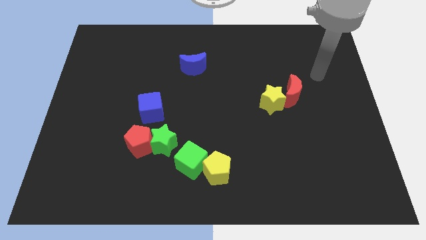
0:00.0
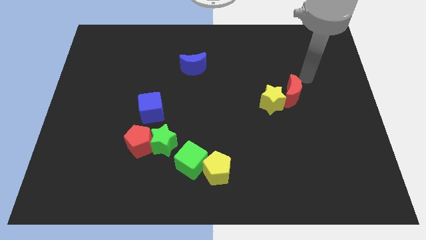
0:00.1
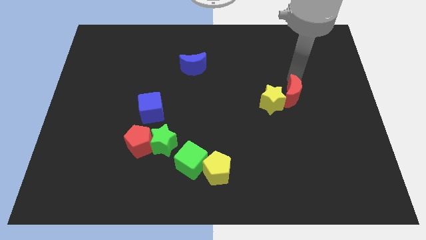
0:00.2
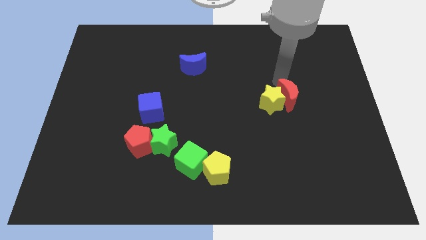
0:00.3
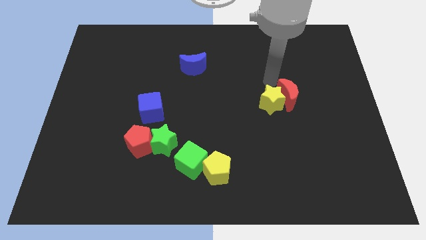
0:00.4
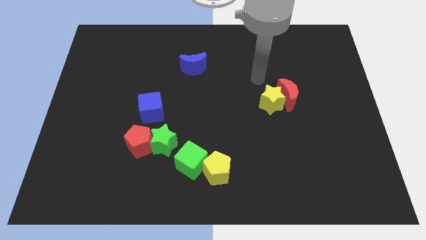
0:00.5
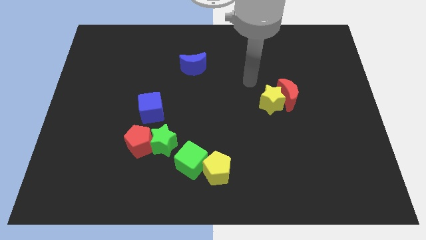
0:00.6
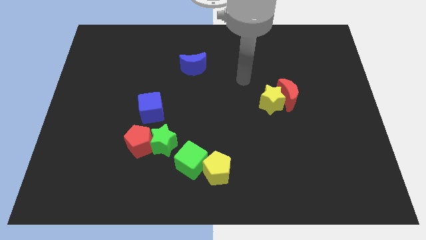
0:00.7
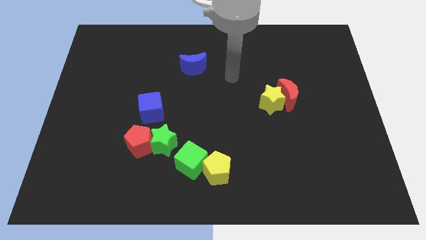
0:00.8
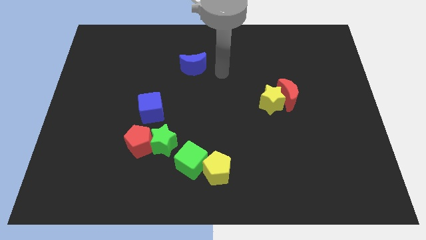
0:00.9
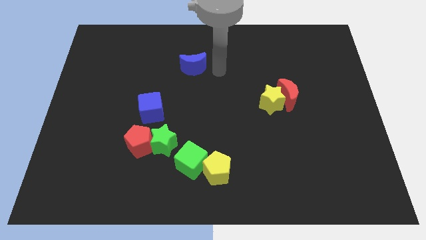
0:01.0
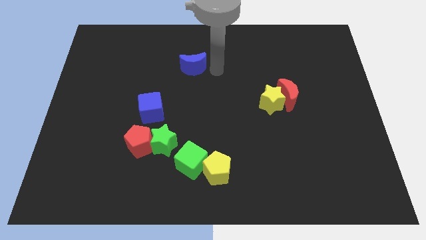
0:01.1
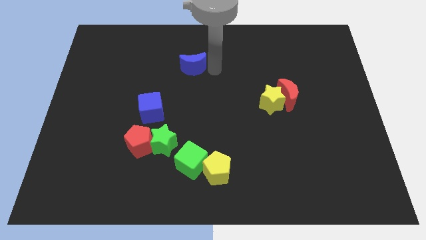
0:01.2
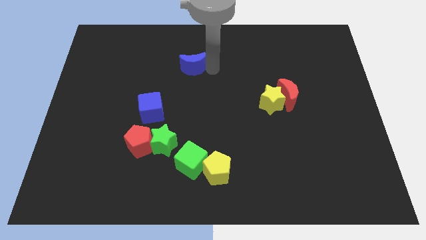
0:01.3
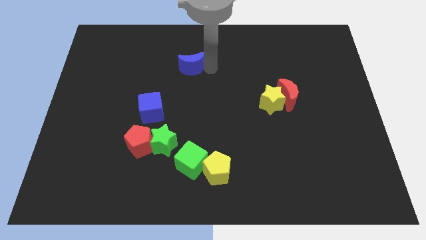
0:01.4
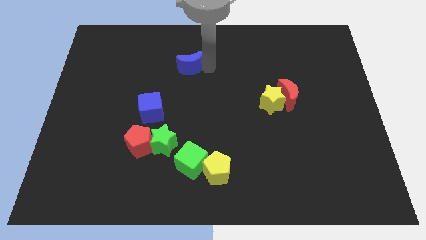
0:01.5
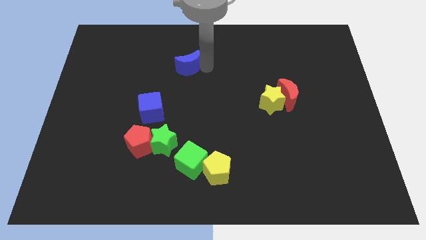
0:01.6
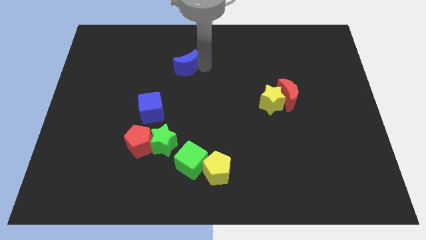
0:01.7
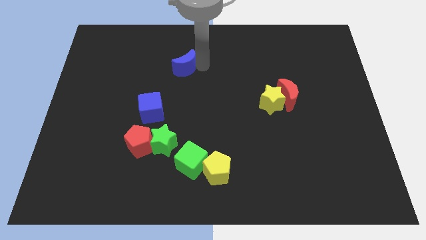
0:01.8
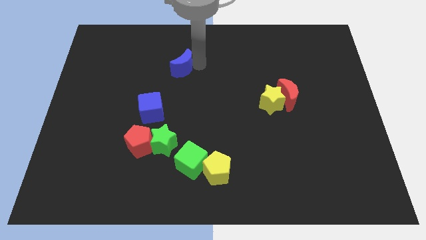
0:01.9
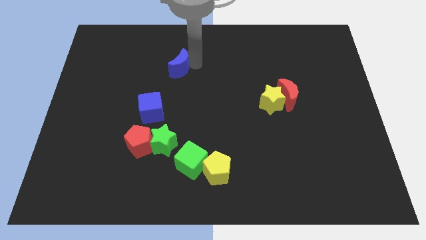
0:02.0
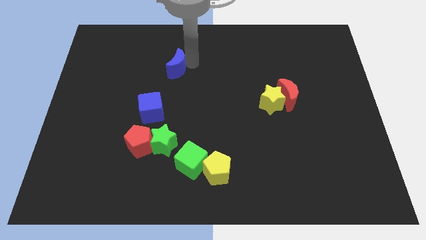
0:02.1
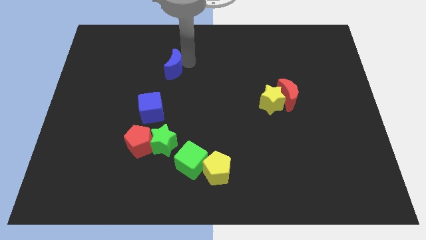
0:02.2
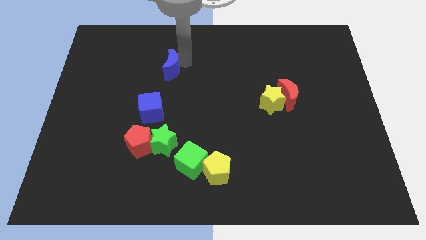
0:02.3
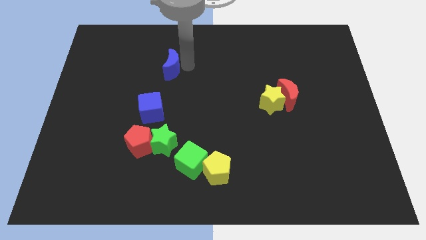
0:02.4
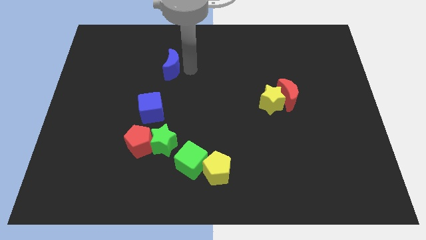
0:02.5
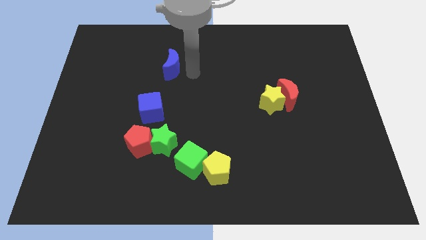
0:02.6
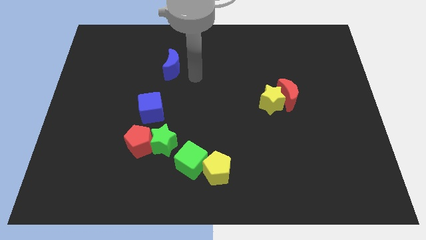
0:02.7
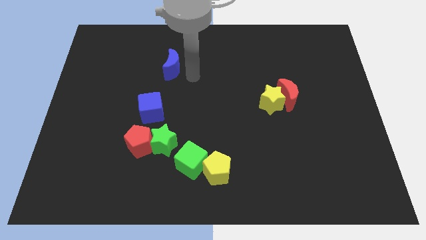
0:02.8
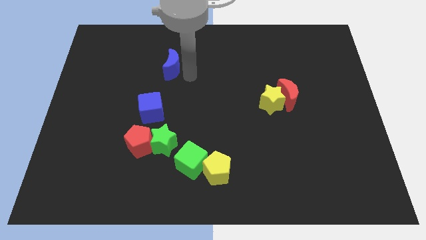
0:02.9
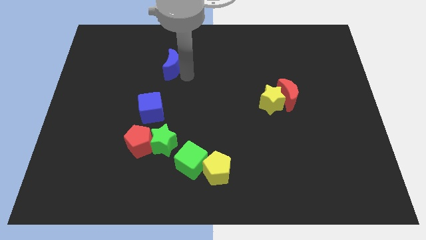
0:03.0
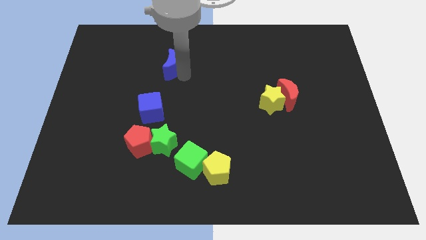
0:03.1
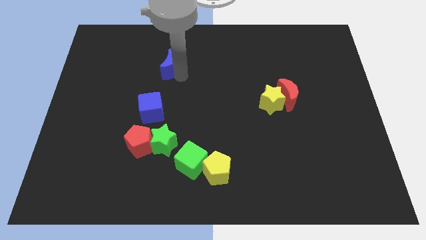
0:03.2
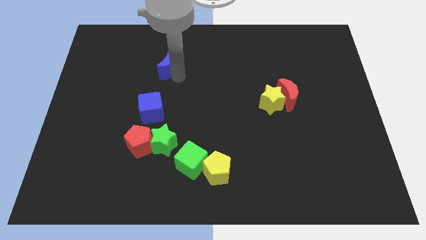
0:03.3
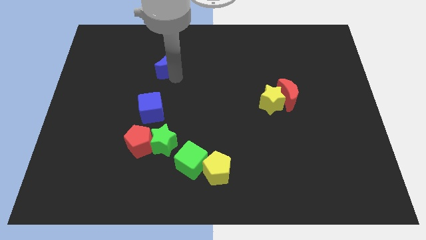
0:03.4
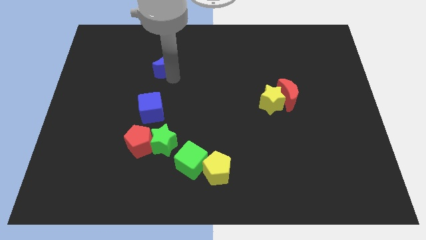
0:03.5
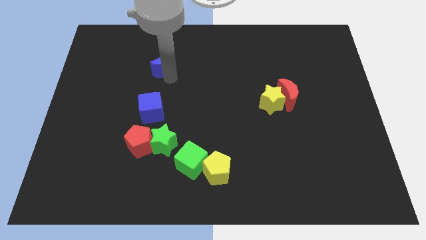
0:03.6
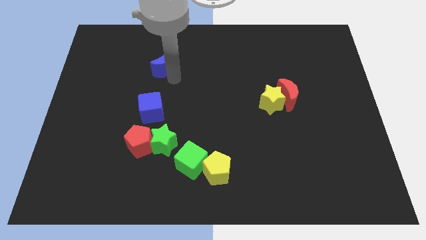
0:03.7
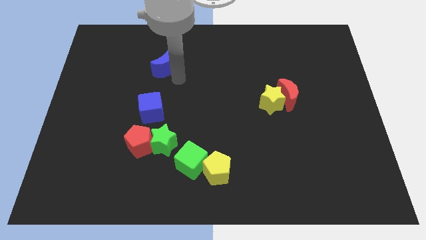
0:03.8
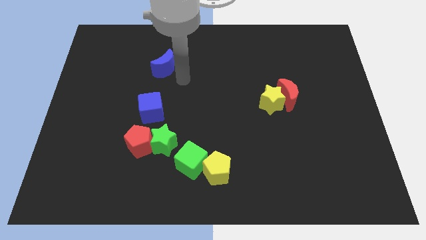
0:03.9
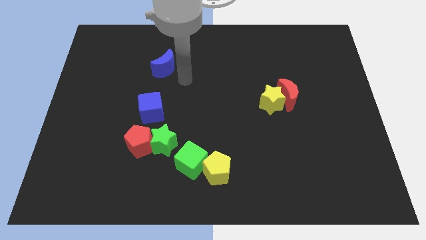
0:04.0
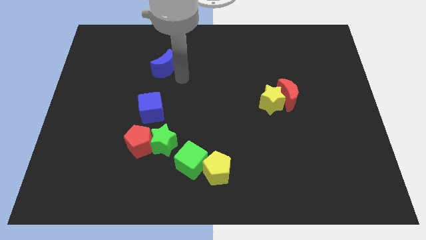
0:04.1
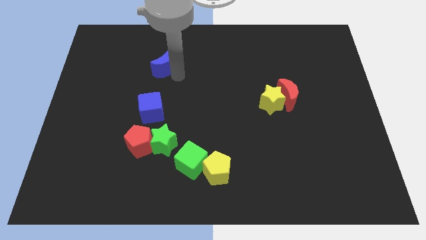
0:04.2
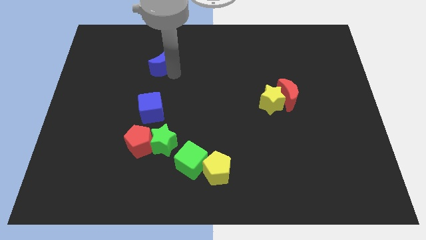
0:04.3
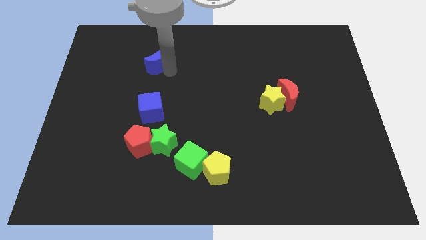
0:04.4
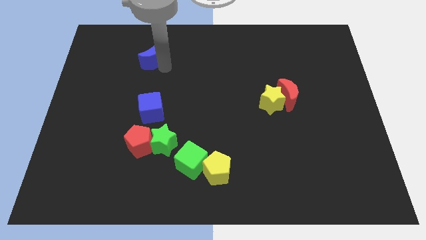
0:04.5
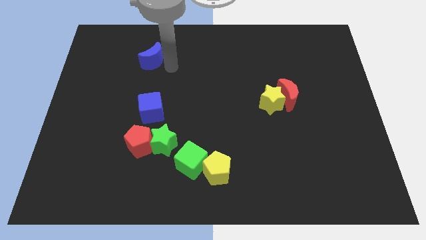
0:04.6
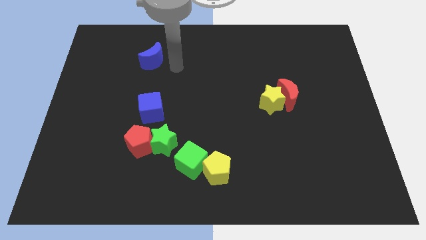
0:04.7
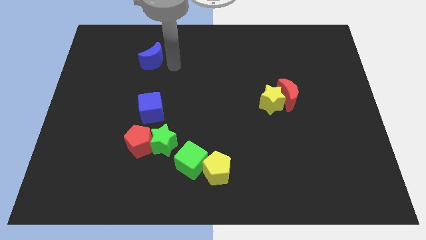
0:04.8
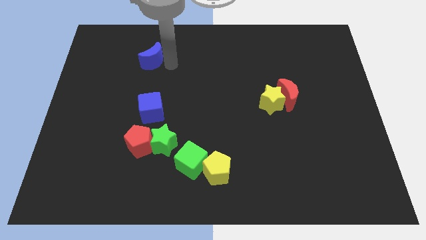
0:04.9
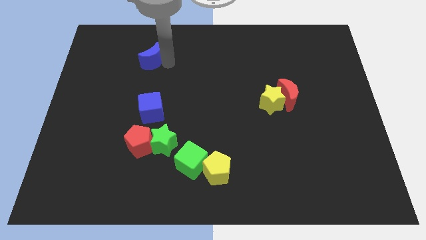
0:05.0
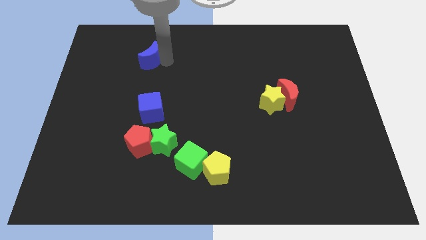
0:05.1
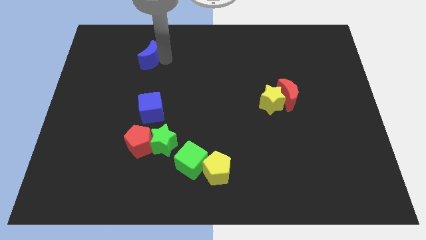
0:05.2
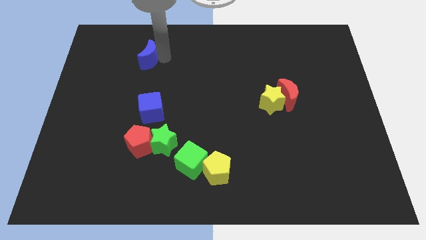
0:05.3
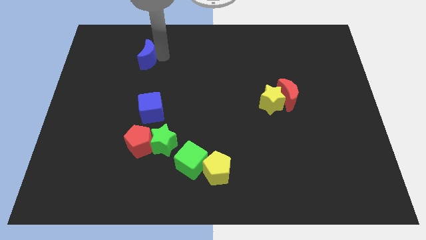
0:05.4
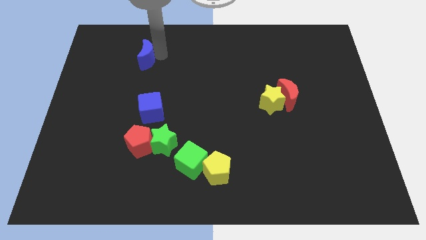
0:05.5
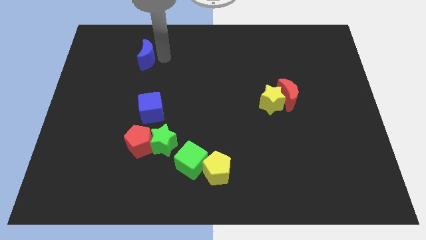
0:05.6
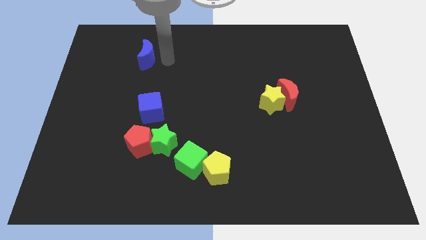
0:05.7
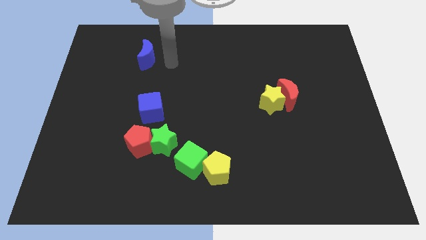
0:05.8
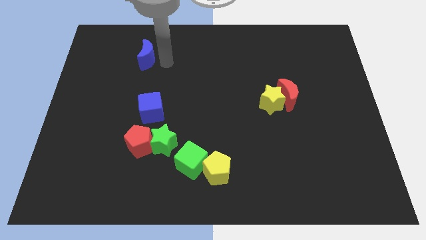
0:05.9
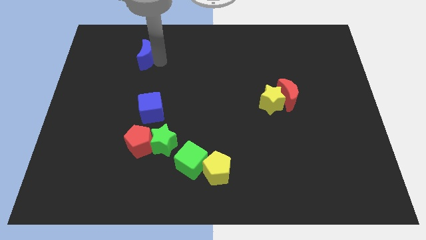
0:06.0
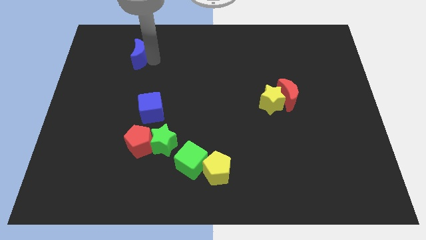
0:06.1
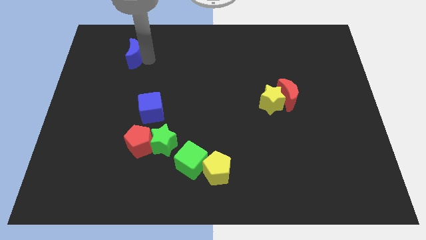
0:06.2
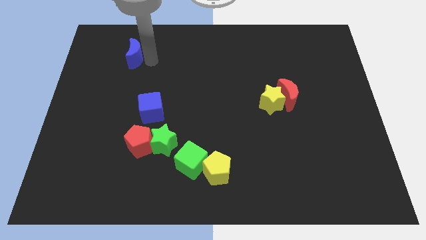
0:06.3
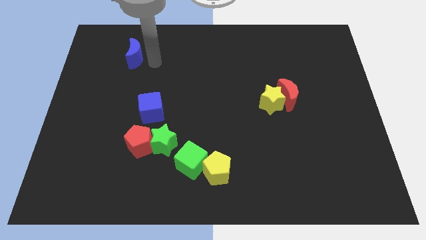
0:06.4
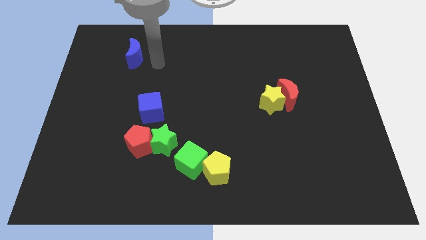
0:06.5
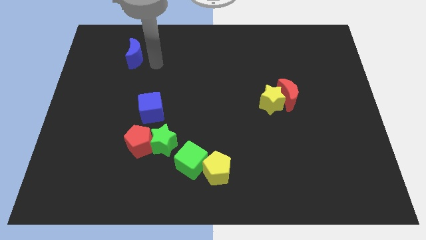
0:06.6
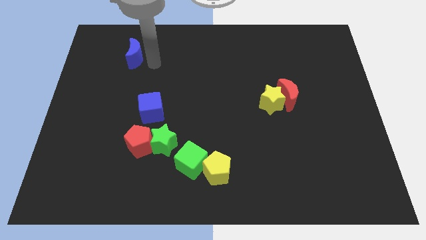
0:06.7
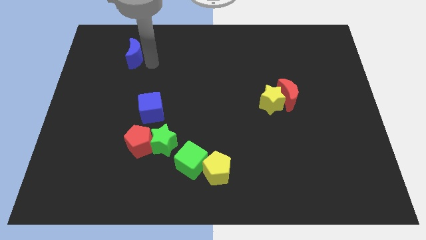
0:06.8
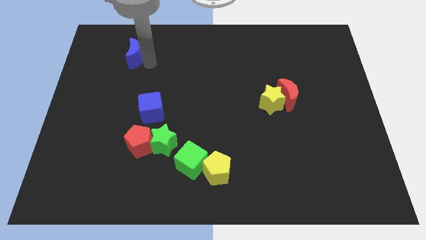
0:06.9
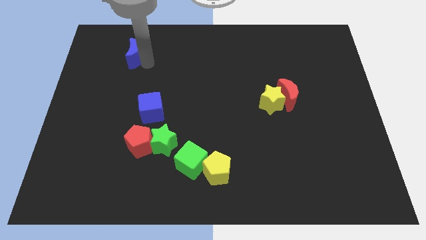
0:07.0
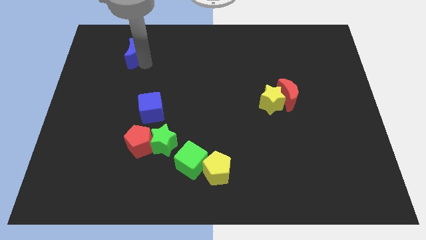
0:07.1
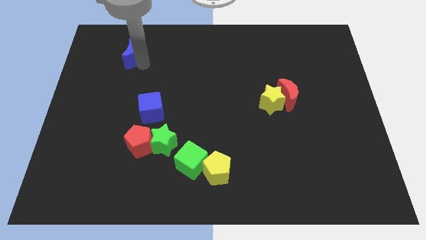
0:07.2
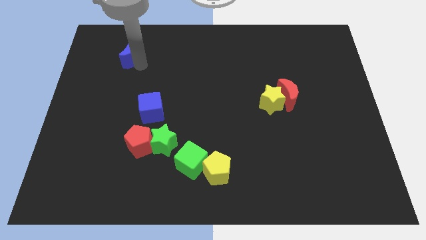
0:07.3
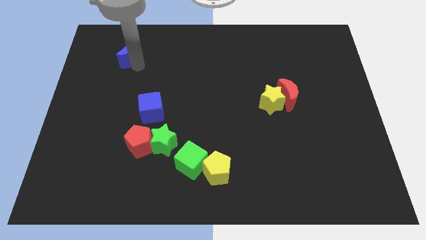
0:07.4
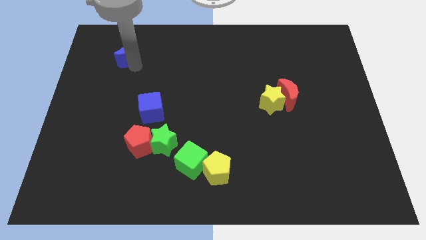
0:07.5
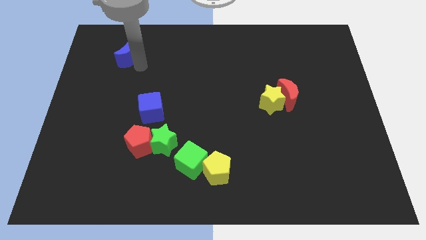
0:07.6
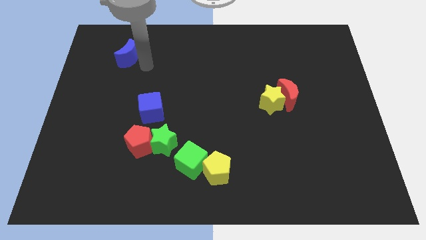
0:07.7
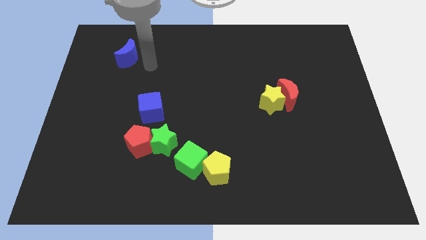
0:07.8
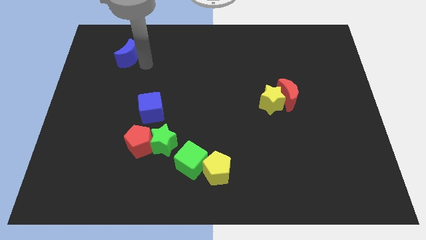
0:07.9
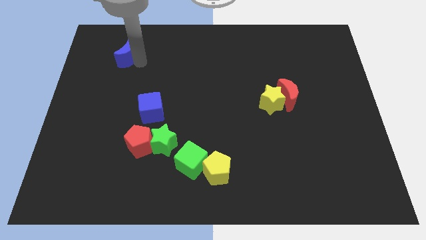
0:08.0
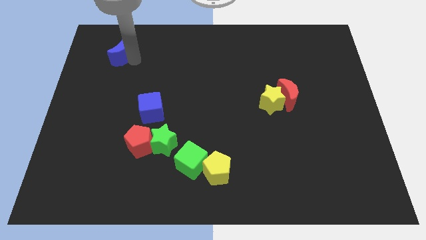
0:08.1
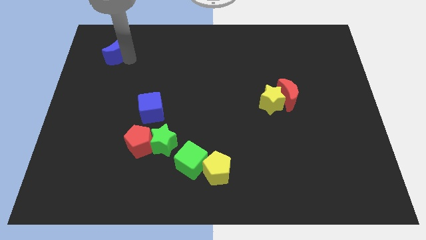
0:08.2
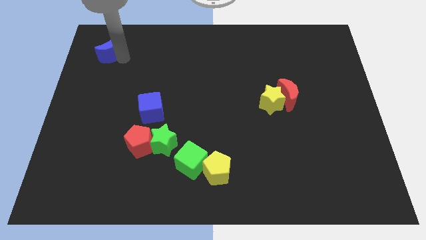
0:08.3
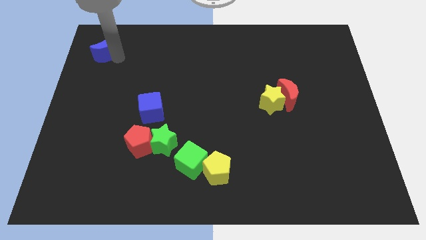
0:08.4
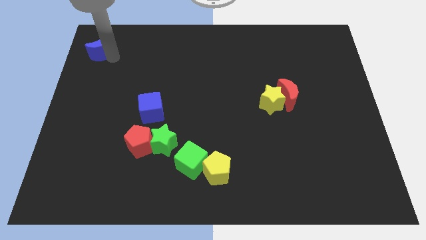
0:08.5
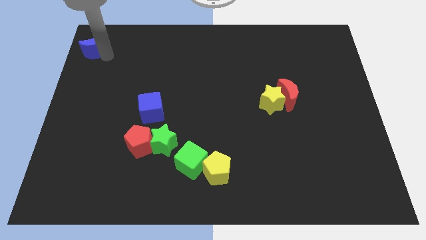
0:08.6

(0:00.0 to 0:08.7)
slide the blue moon to the top left
